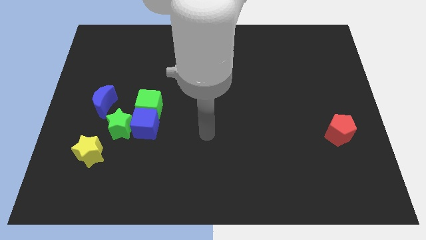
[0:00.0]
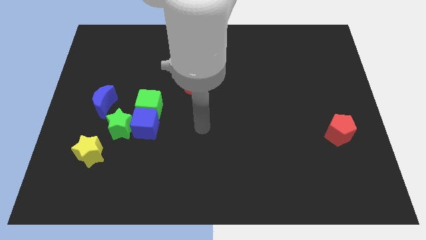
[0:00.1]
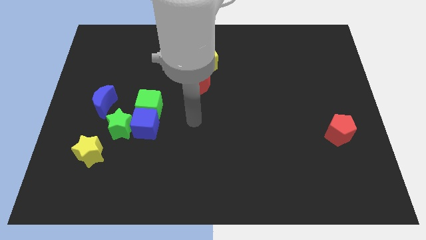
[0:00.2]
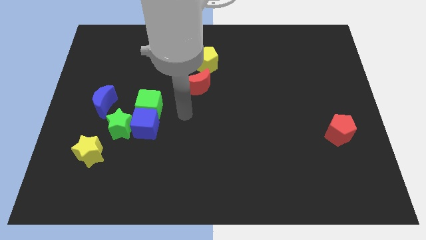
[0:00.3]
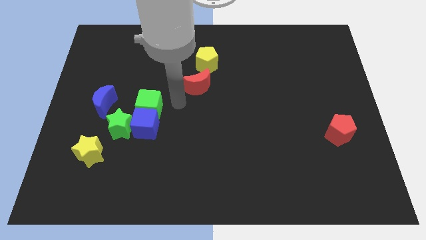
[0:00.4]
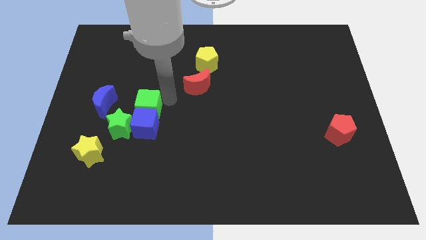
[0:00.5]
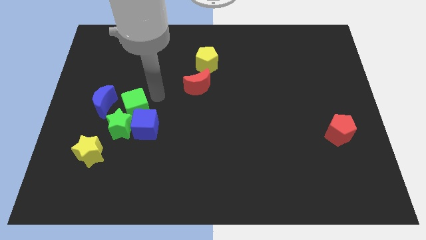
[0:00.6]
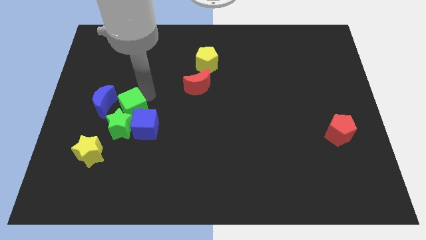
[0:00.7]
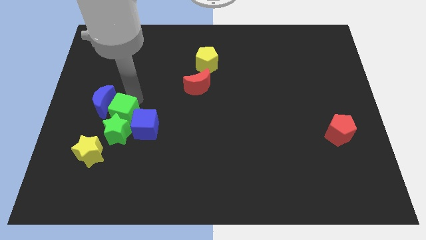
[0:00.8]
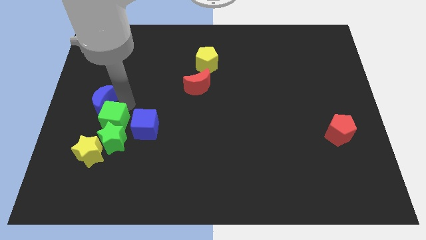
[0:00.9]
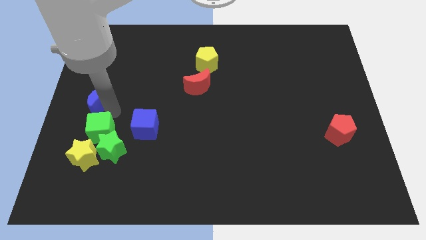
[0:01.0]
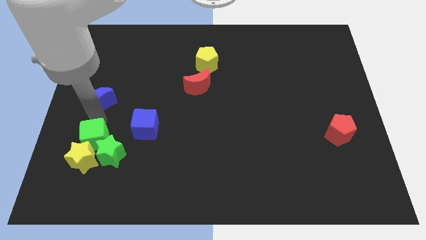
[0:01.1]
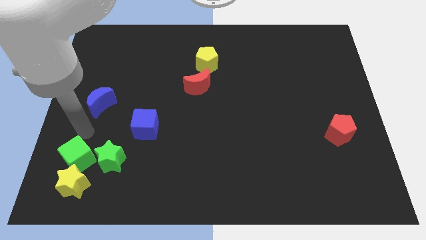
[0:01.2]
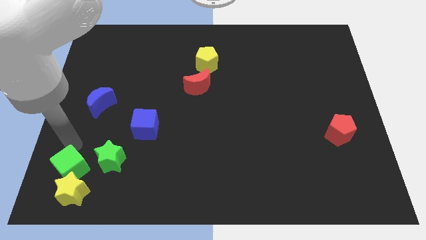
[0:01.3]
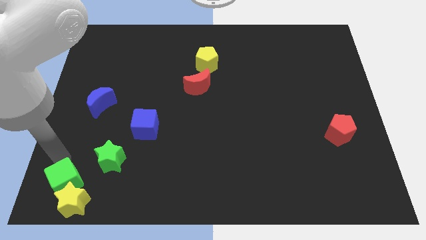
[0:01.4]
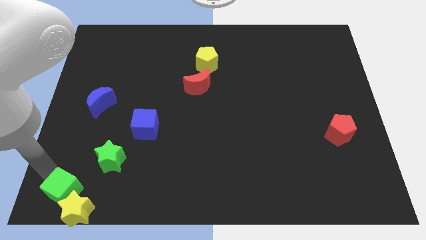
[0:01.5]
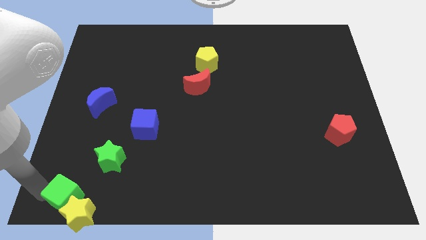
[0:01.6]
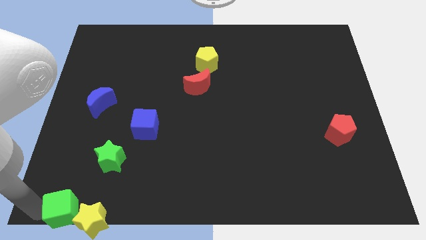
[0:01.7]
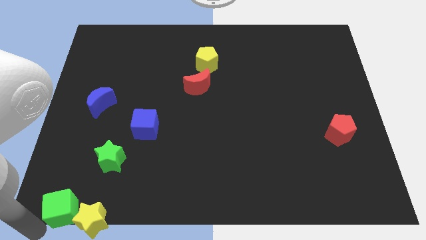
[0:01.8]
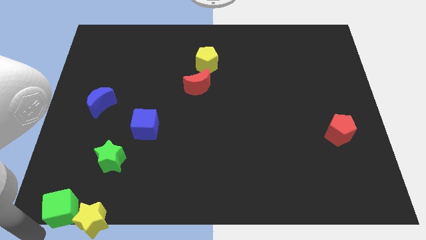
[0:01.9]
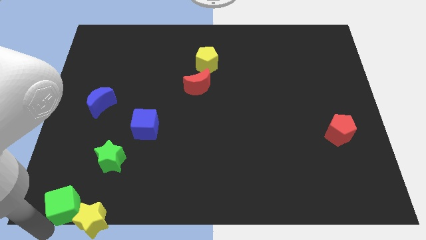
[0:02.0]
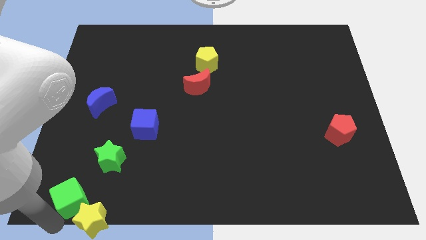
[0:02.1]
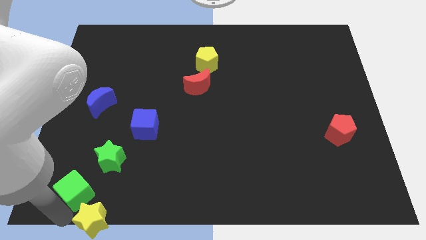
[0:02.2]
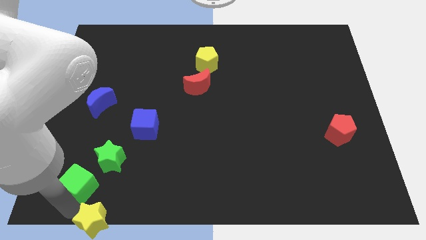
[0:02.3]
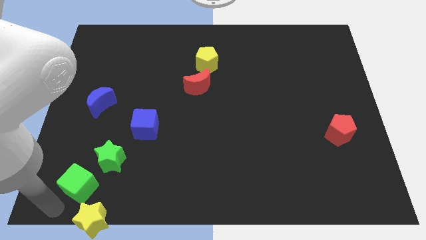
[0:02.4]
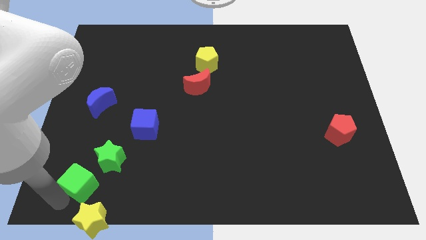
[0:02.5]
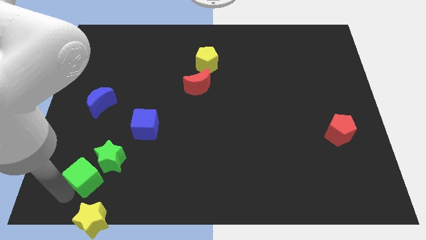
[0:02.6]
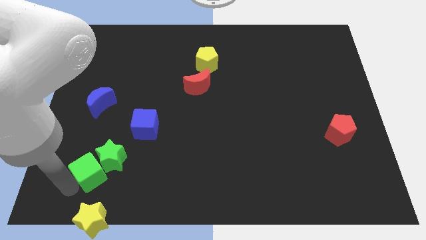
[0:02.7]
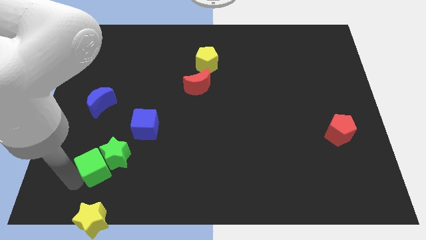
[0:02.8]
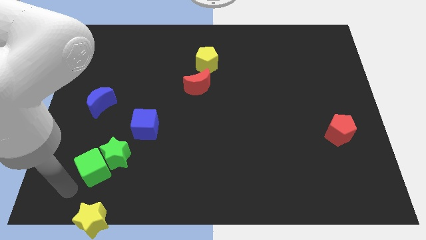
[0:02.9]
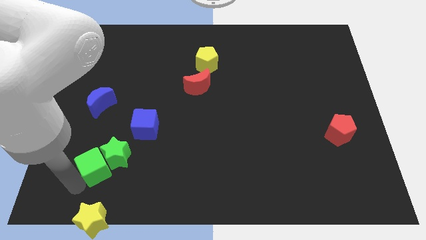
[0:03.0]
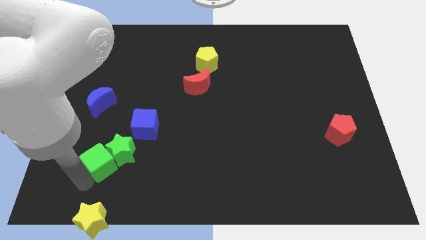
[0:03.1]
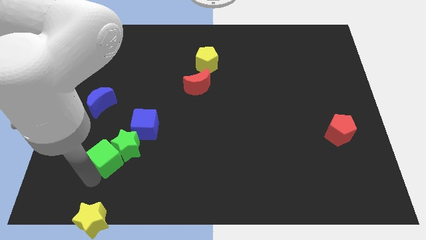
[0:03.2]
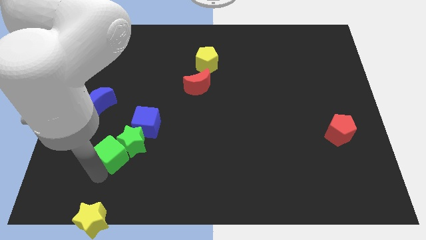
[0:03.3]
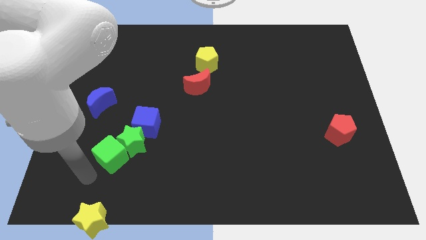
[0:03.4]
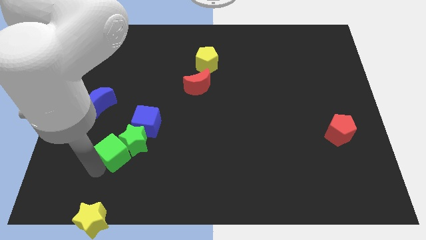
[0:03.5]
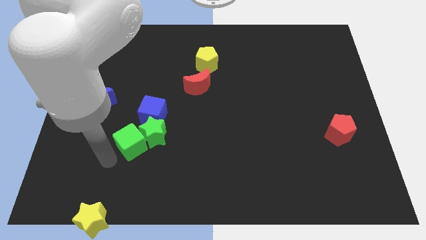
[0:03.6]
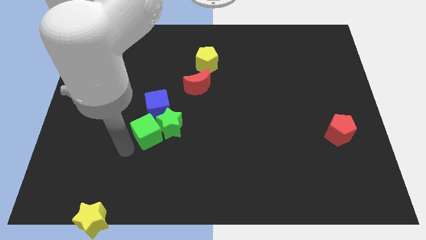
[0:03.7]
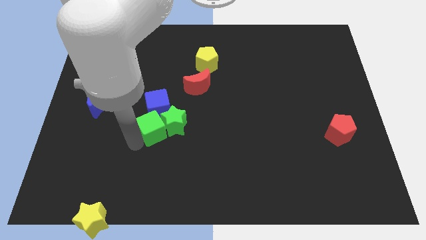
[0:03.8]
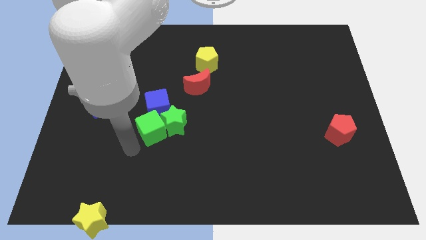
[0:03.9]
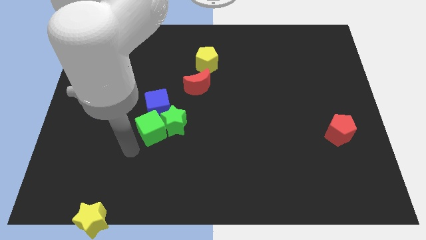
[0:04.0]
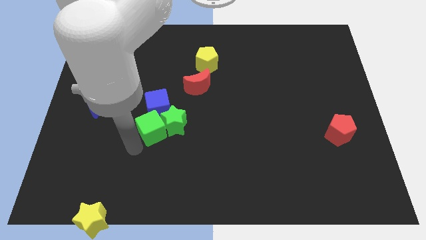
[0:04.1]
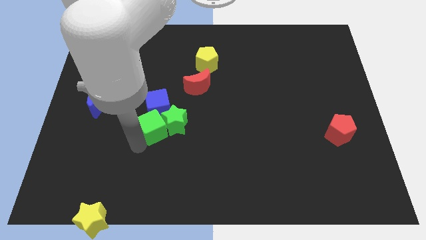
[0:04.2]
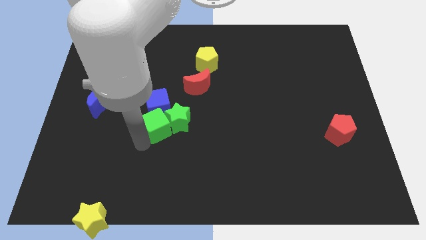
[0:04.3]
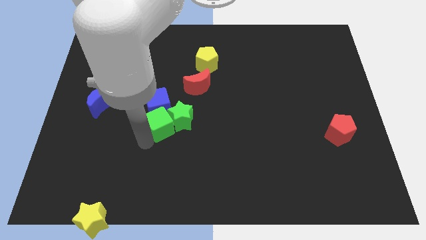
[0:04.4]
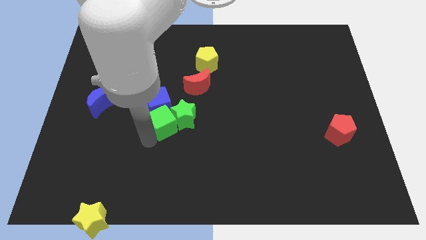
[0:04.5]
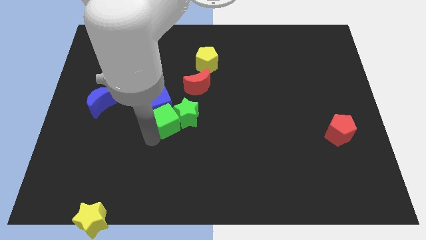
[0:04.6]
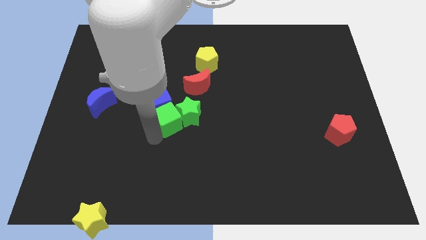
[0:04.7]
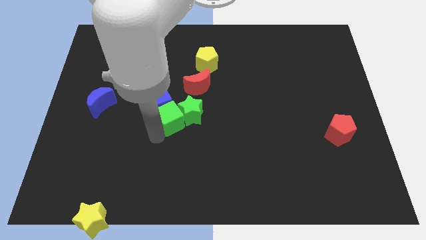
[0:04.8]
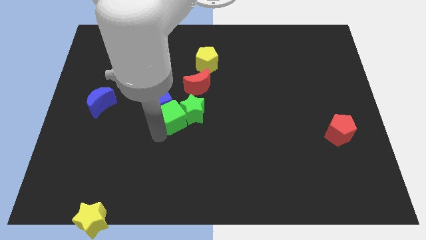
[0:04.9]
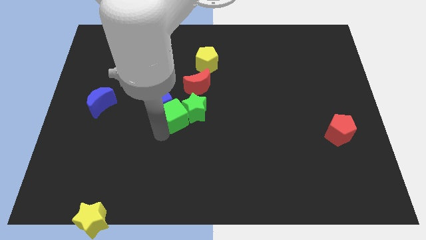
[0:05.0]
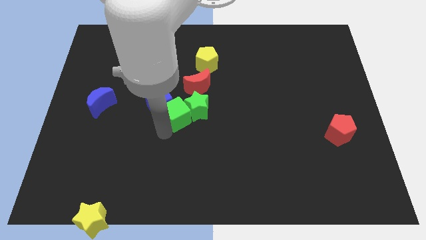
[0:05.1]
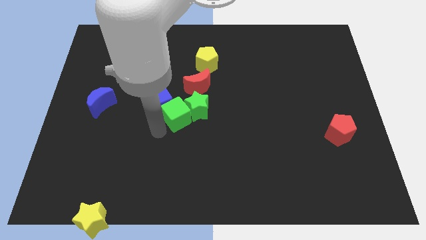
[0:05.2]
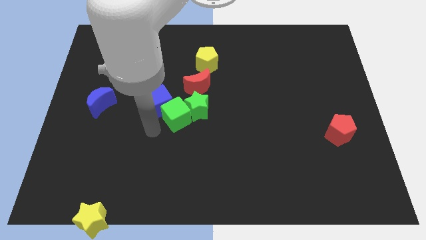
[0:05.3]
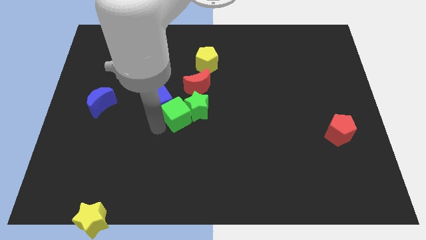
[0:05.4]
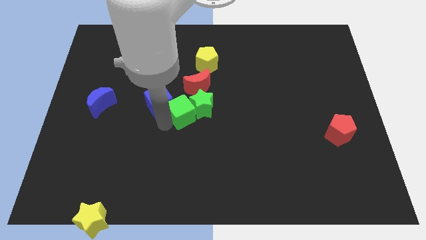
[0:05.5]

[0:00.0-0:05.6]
move the green cube a little right

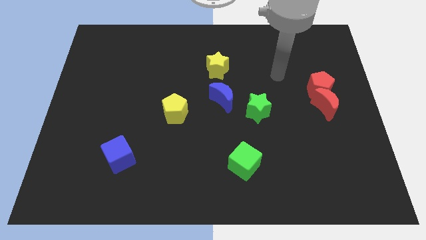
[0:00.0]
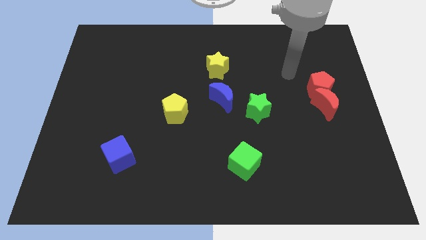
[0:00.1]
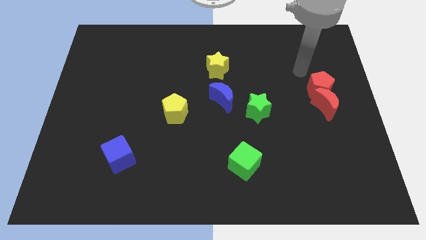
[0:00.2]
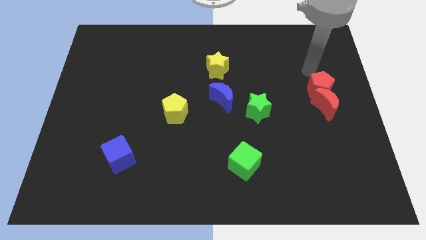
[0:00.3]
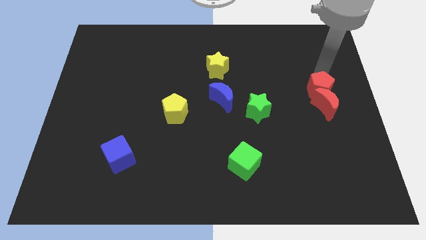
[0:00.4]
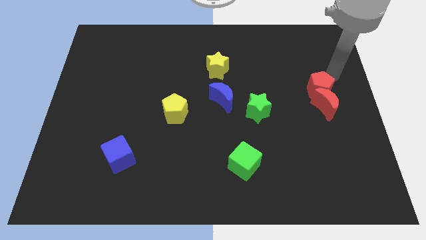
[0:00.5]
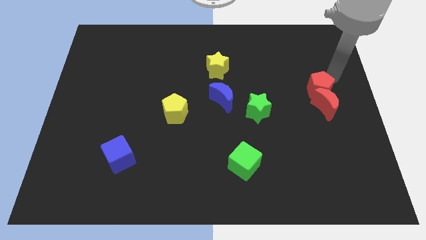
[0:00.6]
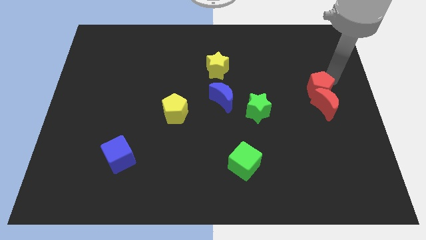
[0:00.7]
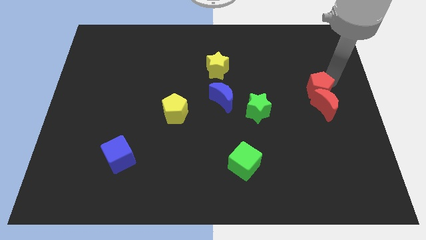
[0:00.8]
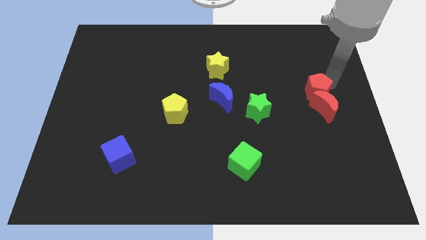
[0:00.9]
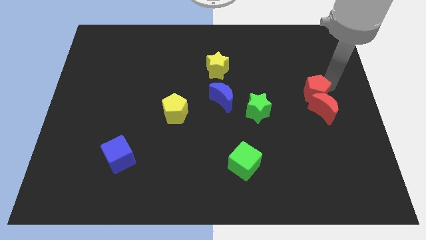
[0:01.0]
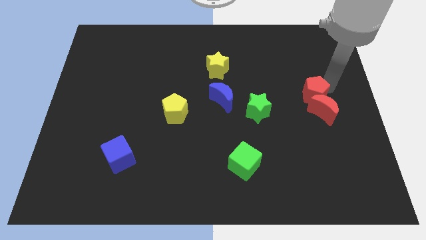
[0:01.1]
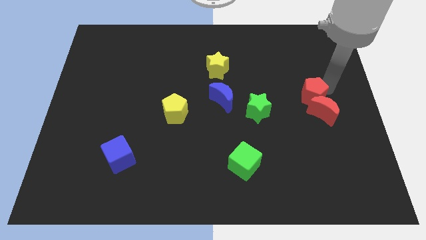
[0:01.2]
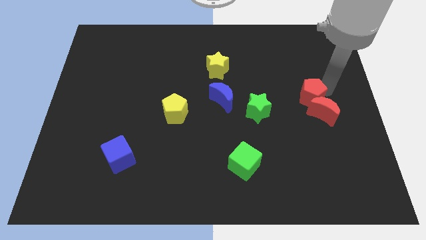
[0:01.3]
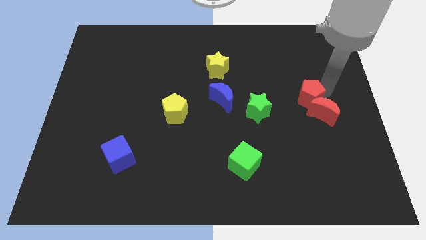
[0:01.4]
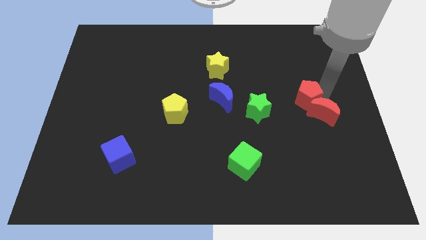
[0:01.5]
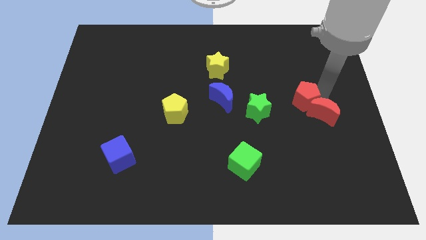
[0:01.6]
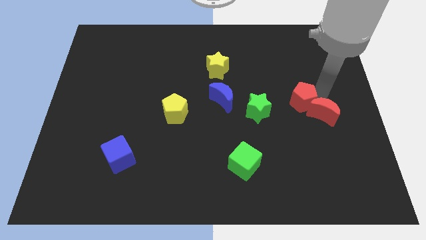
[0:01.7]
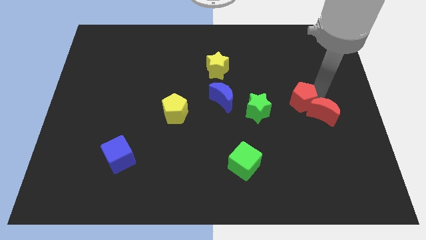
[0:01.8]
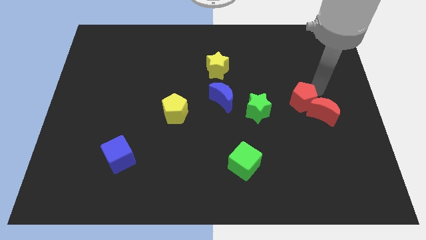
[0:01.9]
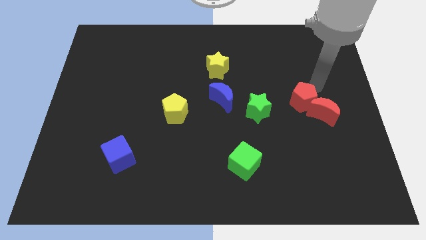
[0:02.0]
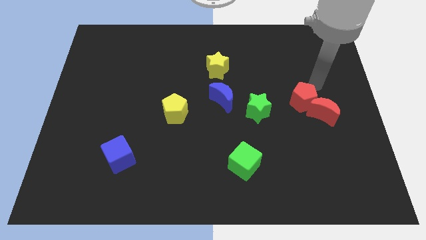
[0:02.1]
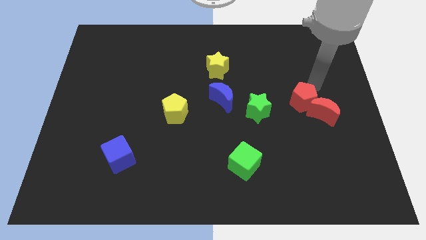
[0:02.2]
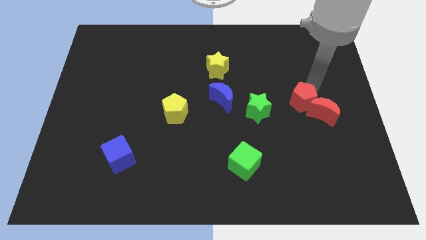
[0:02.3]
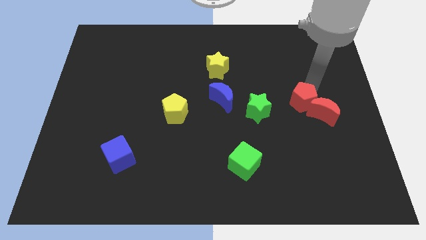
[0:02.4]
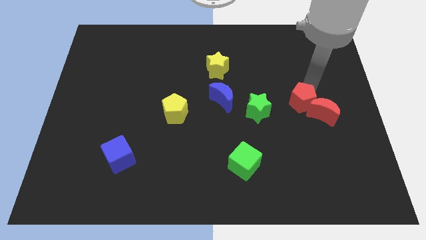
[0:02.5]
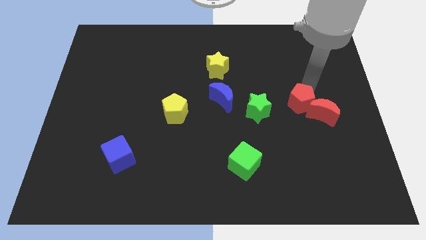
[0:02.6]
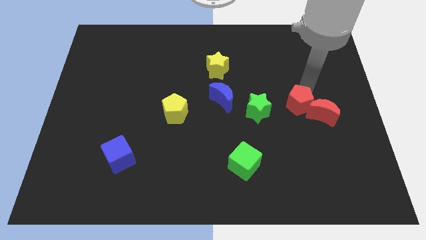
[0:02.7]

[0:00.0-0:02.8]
slide the red pentagon slightly down and then to the left
